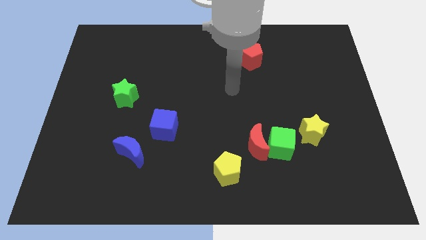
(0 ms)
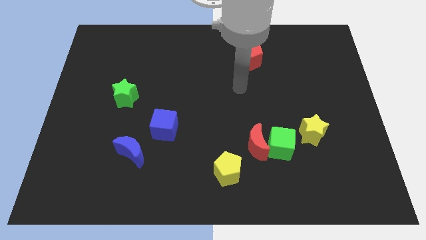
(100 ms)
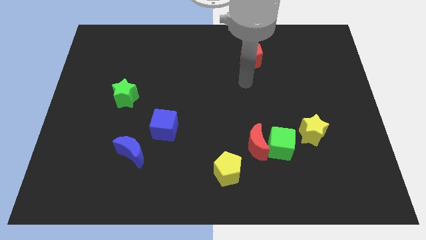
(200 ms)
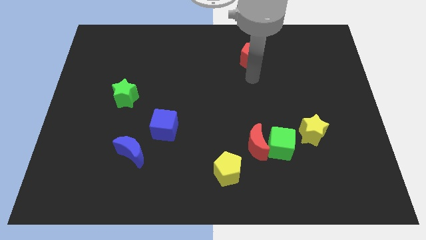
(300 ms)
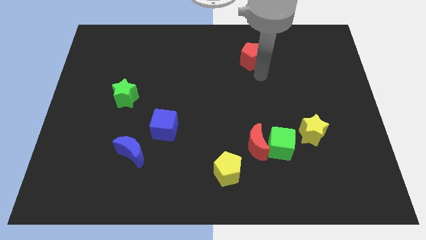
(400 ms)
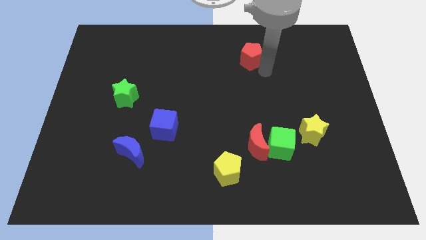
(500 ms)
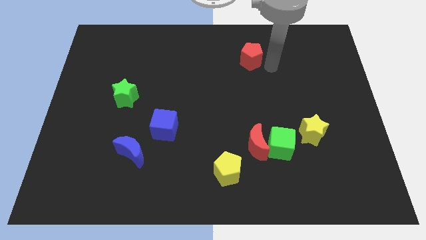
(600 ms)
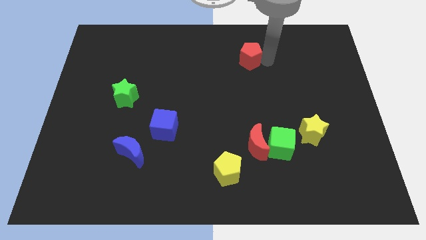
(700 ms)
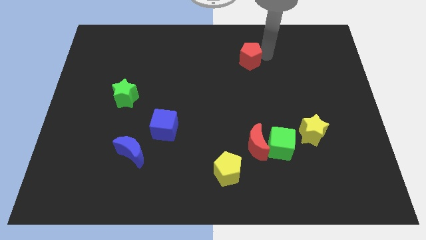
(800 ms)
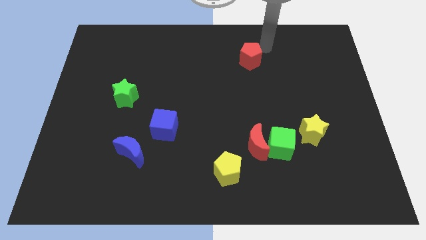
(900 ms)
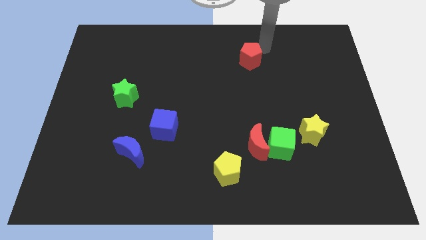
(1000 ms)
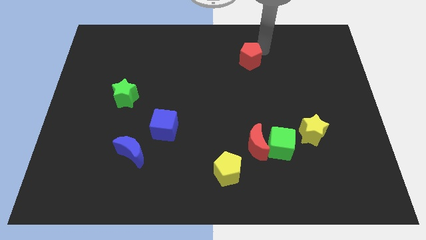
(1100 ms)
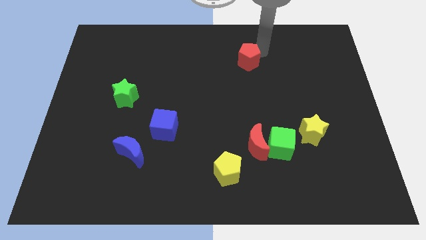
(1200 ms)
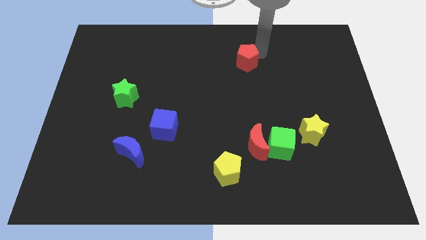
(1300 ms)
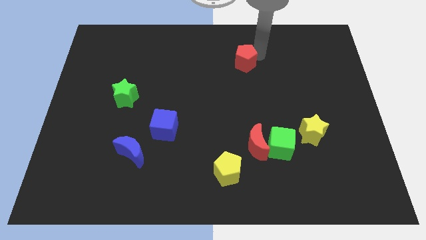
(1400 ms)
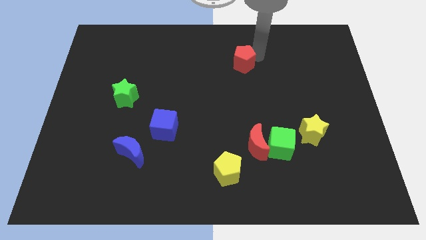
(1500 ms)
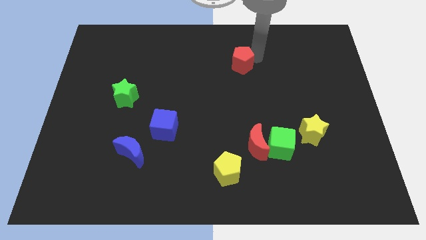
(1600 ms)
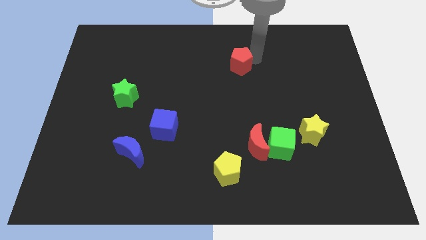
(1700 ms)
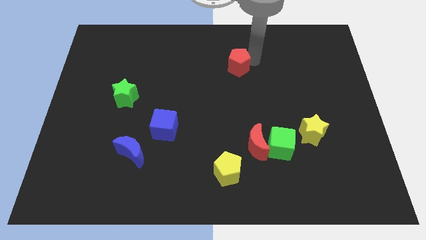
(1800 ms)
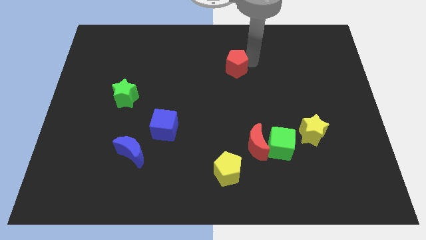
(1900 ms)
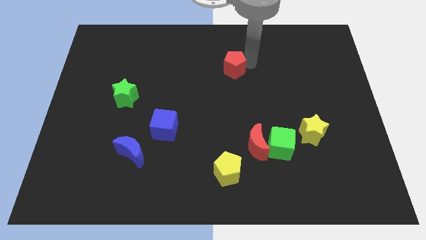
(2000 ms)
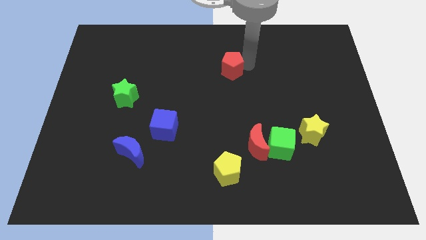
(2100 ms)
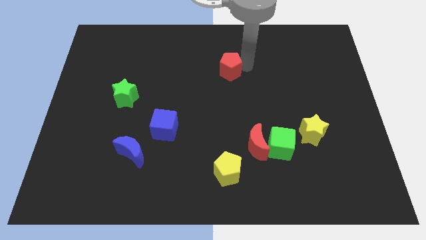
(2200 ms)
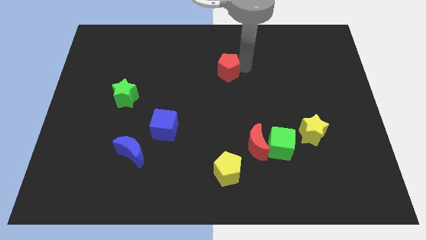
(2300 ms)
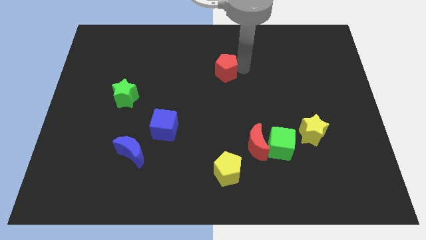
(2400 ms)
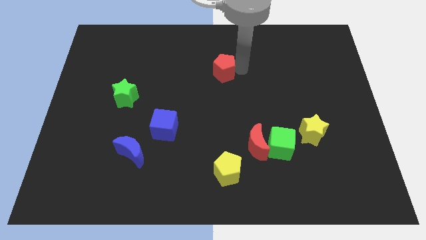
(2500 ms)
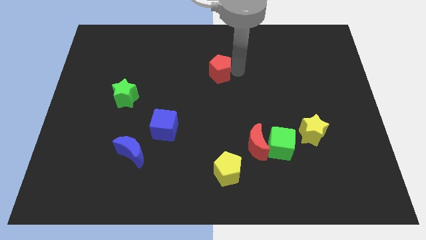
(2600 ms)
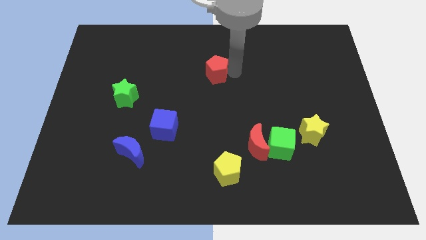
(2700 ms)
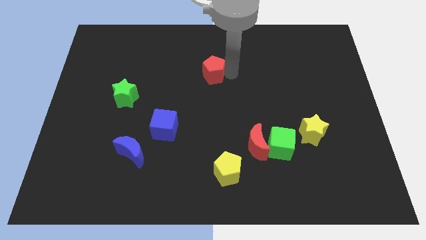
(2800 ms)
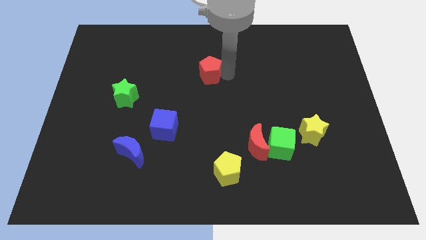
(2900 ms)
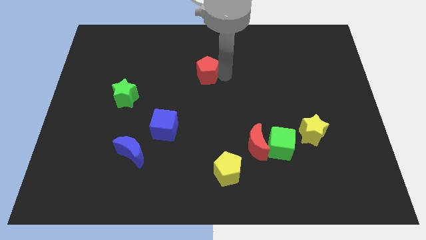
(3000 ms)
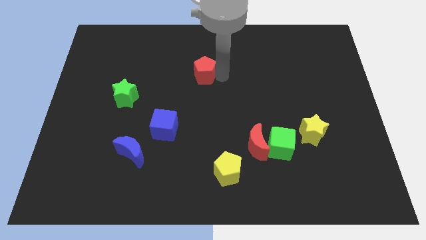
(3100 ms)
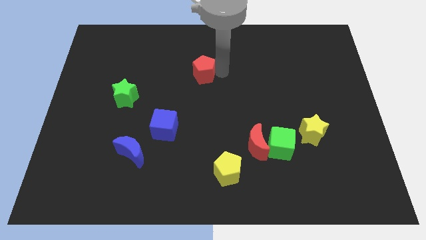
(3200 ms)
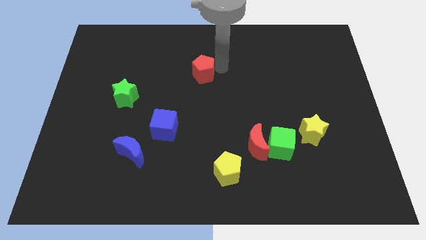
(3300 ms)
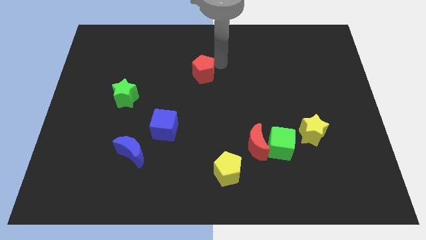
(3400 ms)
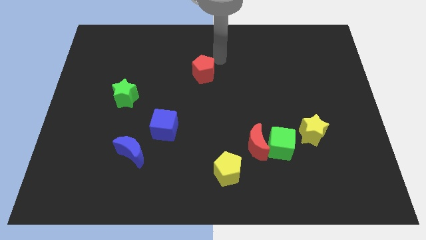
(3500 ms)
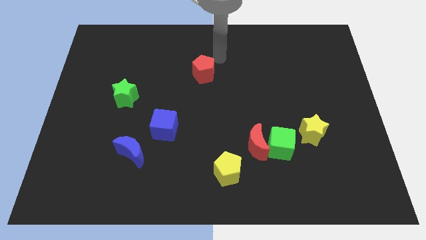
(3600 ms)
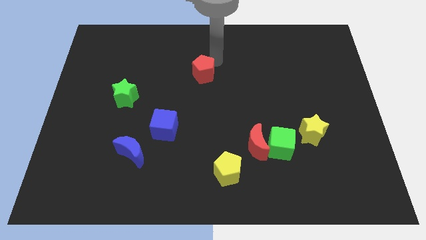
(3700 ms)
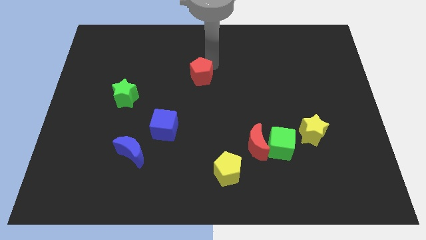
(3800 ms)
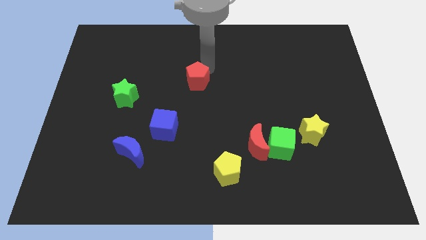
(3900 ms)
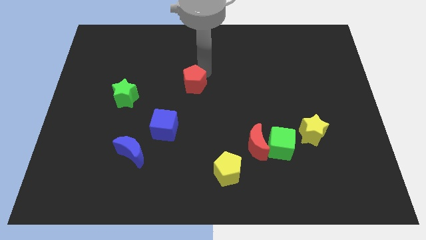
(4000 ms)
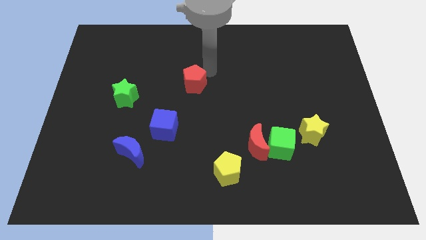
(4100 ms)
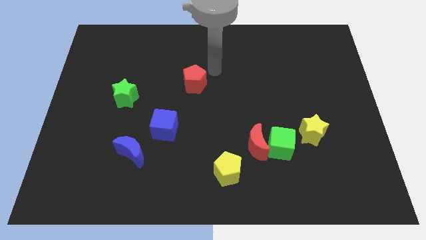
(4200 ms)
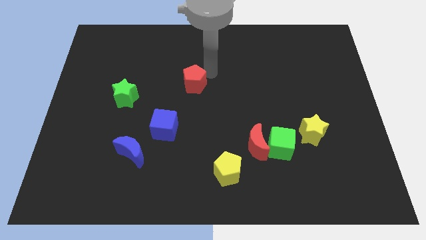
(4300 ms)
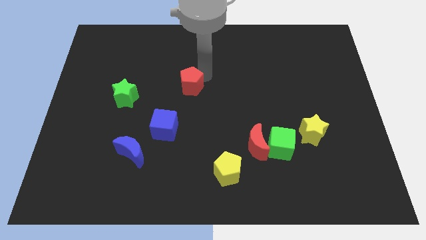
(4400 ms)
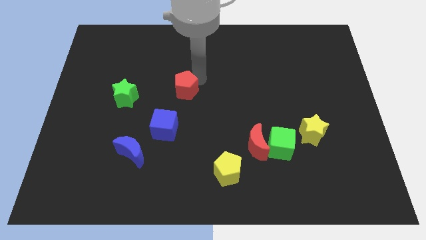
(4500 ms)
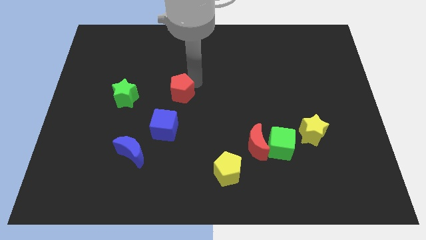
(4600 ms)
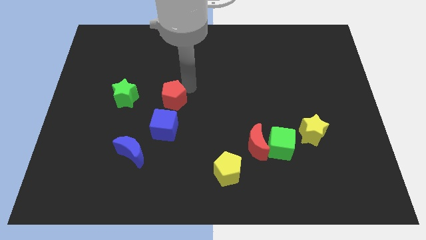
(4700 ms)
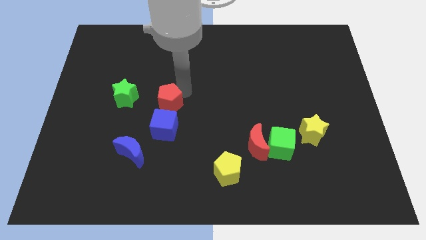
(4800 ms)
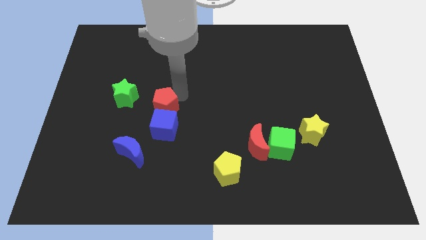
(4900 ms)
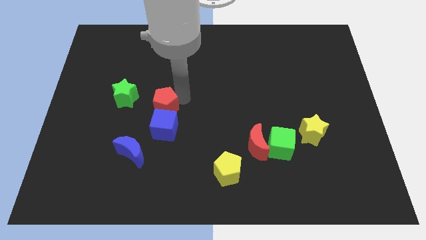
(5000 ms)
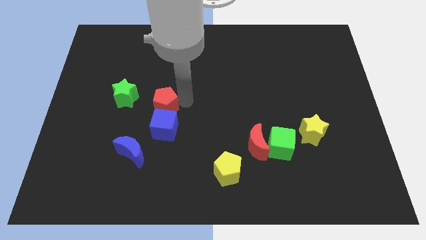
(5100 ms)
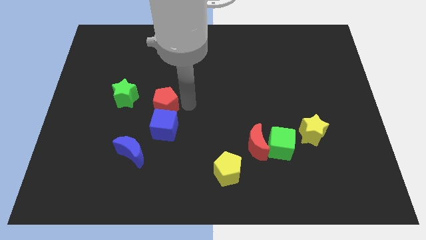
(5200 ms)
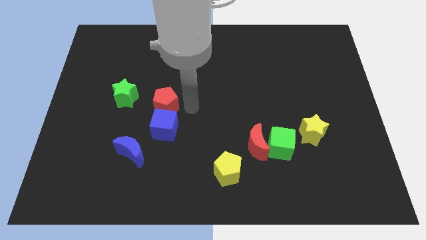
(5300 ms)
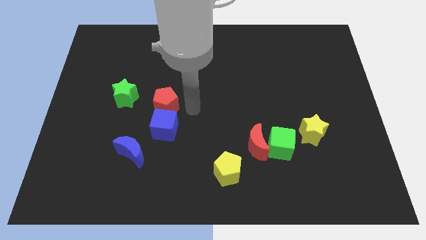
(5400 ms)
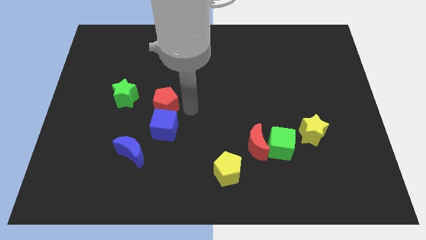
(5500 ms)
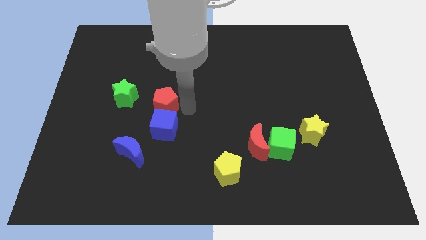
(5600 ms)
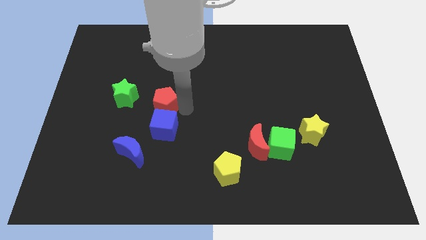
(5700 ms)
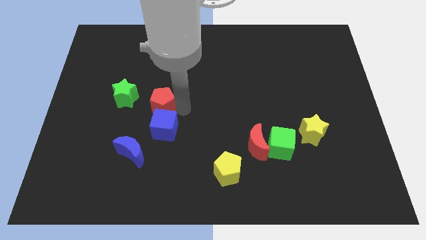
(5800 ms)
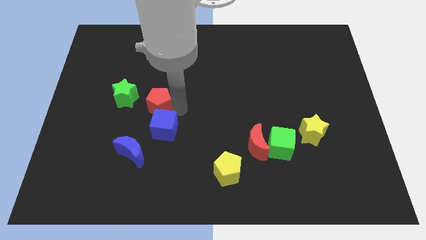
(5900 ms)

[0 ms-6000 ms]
put the red pentagon to the top of the blue moon

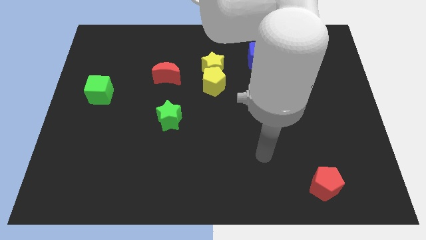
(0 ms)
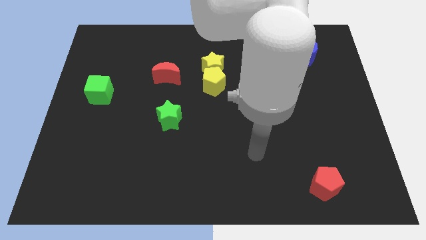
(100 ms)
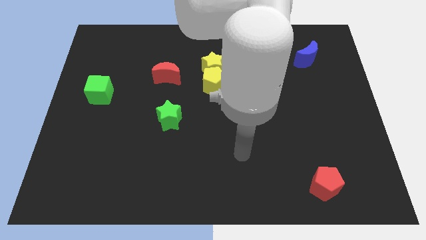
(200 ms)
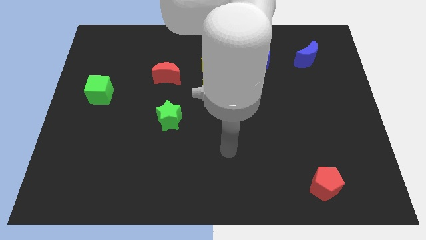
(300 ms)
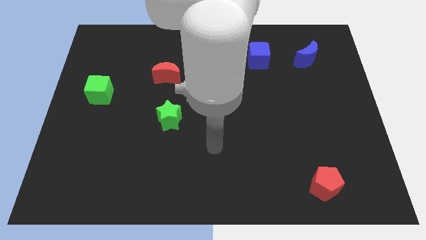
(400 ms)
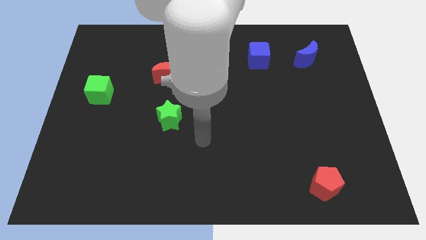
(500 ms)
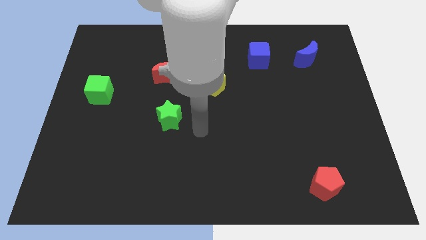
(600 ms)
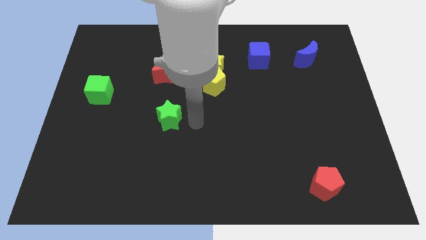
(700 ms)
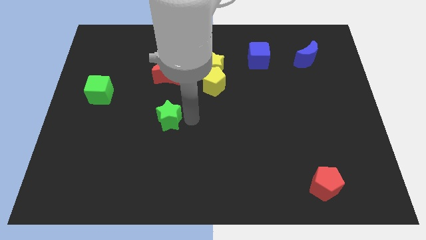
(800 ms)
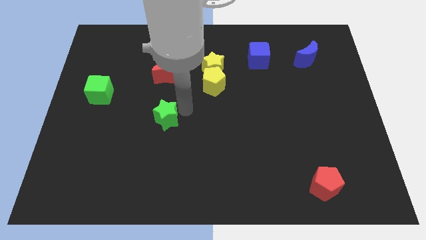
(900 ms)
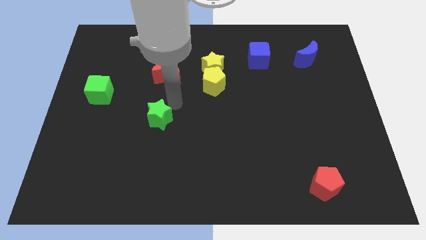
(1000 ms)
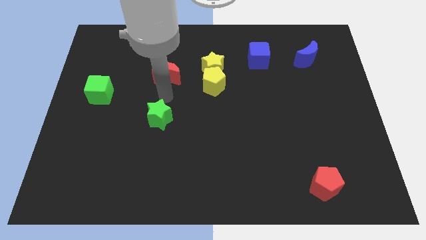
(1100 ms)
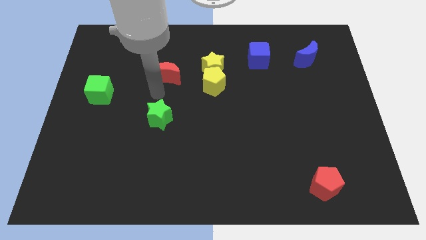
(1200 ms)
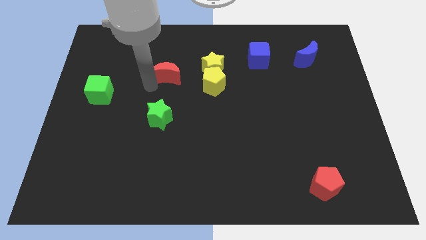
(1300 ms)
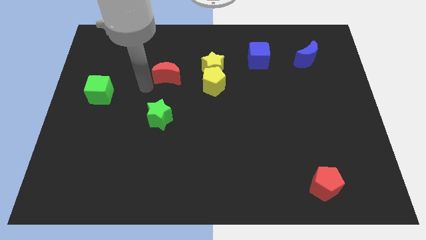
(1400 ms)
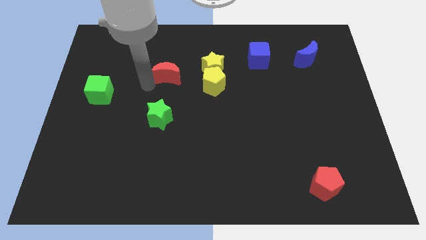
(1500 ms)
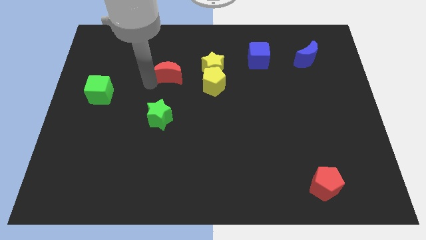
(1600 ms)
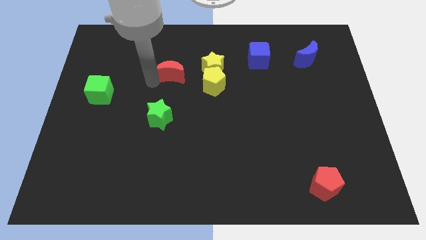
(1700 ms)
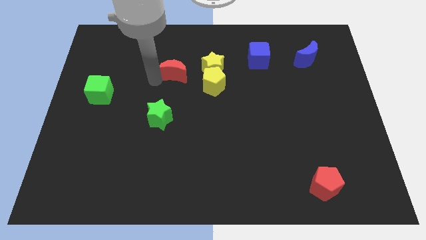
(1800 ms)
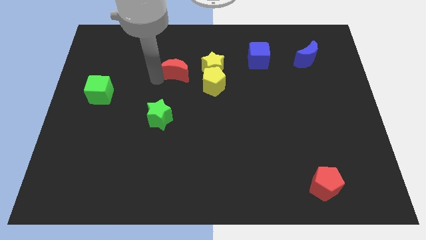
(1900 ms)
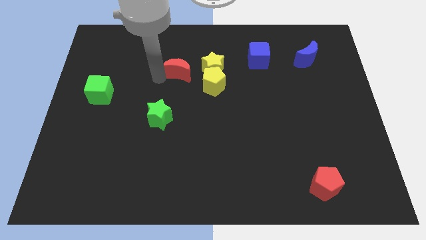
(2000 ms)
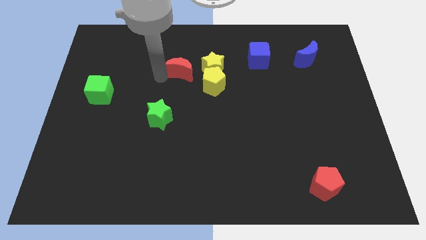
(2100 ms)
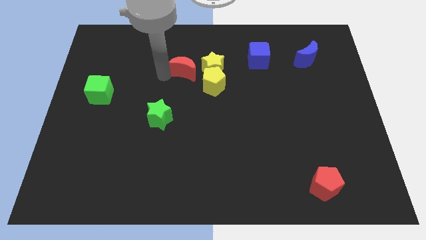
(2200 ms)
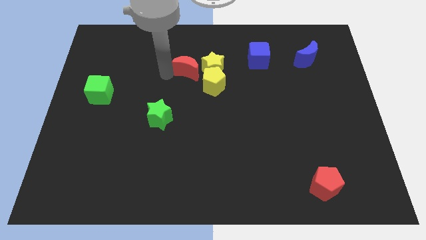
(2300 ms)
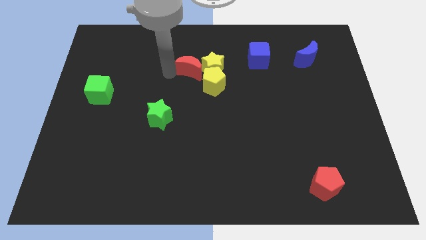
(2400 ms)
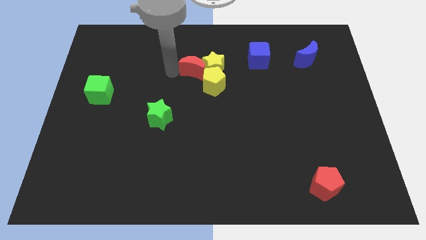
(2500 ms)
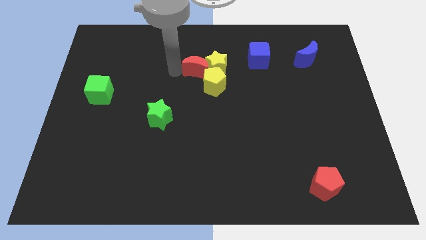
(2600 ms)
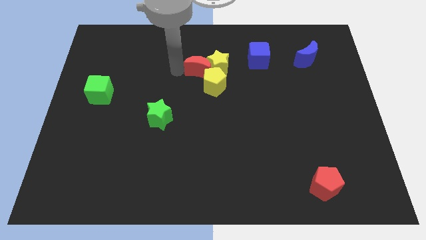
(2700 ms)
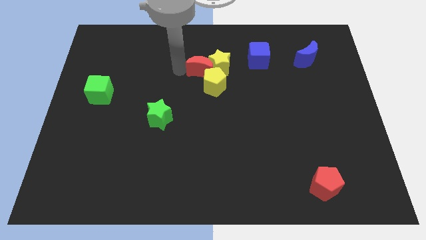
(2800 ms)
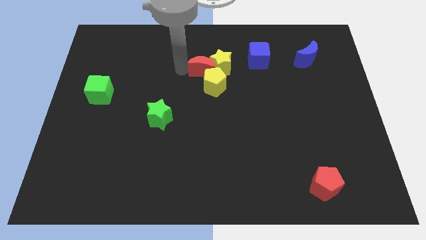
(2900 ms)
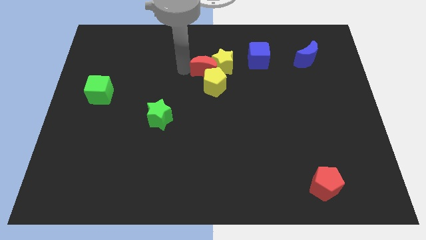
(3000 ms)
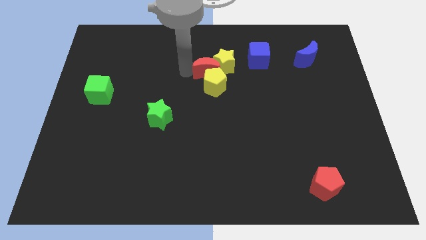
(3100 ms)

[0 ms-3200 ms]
slide the red moon diagonally up and to the right of the yellow pentagon
